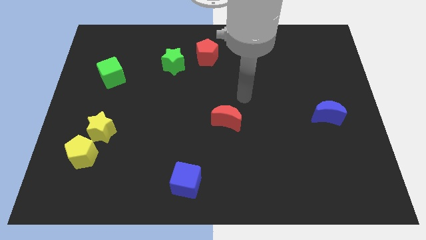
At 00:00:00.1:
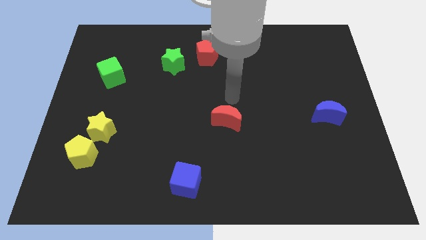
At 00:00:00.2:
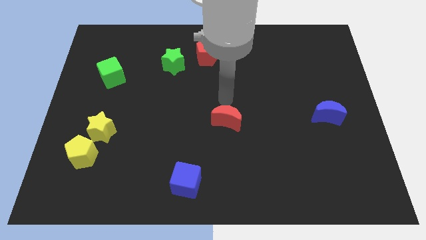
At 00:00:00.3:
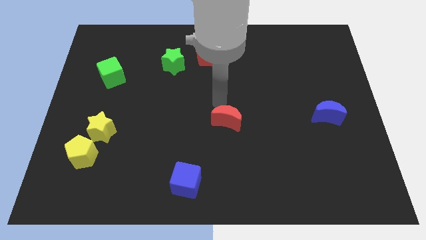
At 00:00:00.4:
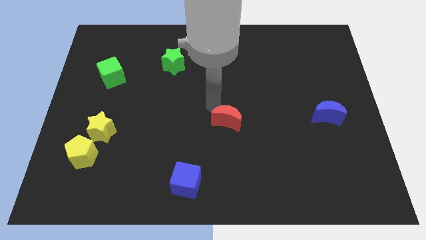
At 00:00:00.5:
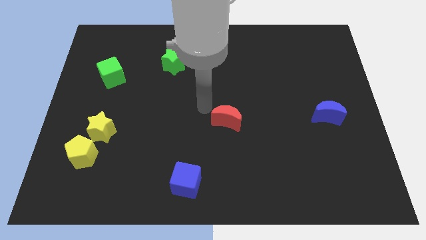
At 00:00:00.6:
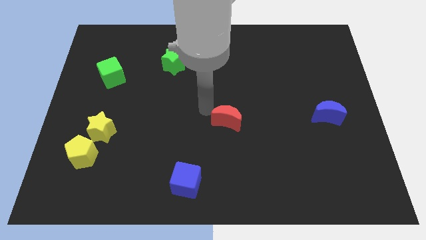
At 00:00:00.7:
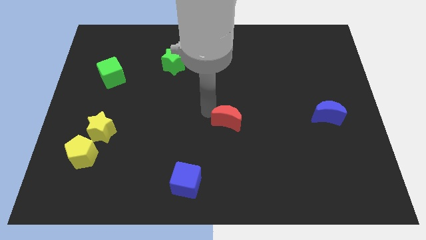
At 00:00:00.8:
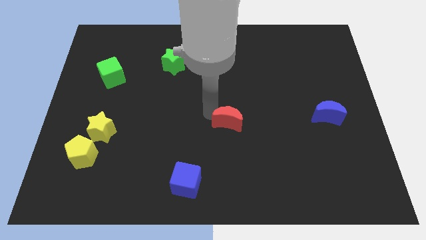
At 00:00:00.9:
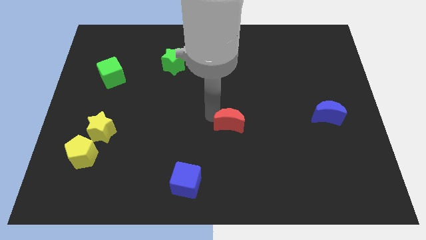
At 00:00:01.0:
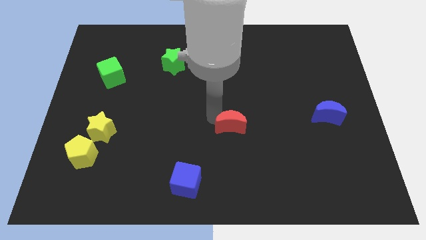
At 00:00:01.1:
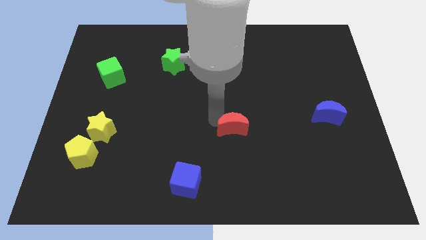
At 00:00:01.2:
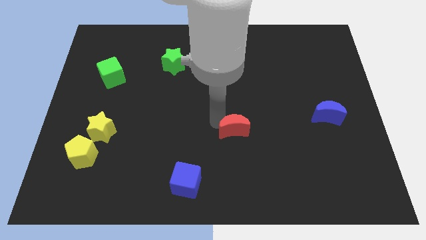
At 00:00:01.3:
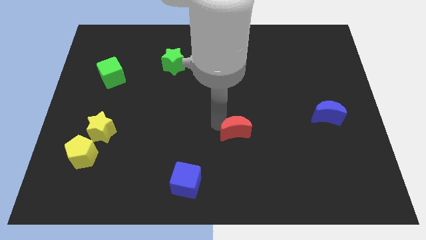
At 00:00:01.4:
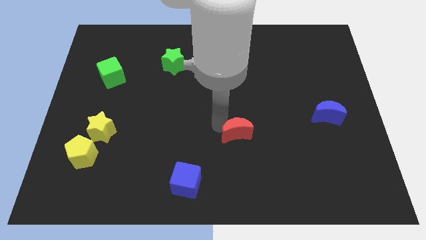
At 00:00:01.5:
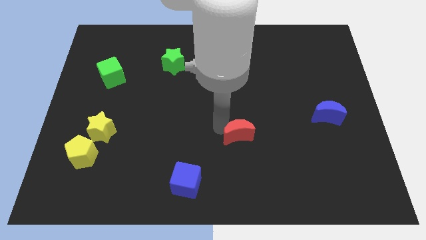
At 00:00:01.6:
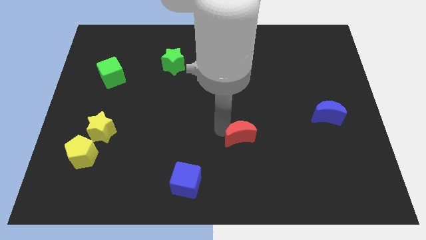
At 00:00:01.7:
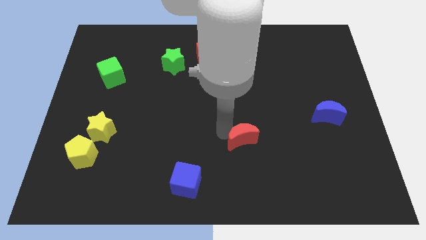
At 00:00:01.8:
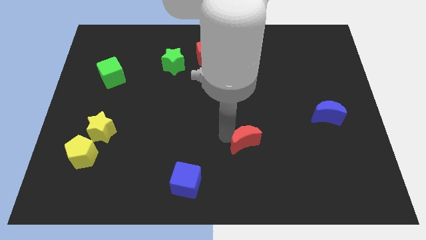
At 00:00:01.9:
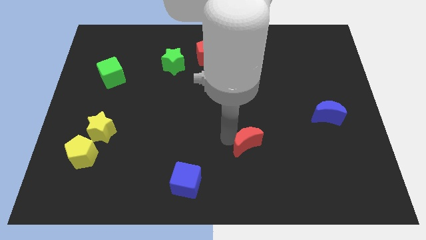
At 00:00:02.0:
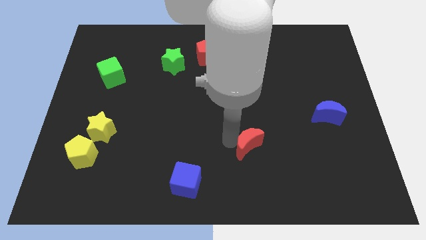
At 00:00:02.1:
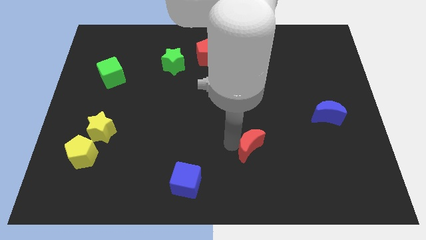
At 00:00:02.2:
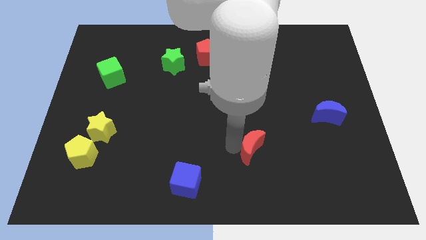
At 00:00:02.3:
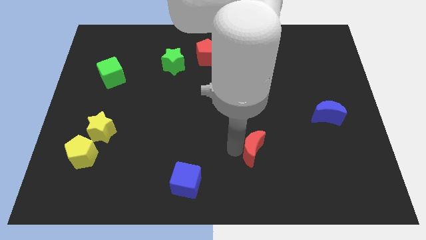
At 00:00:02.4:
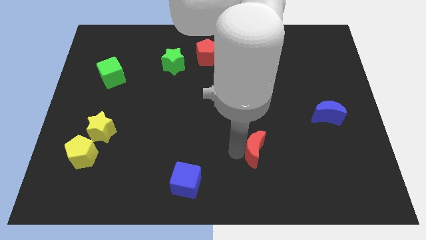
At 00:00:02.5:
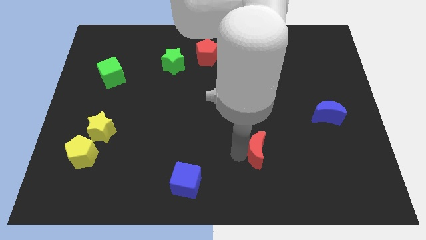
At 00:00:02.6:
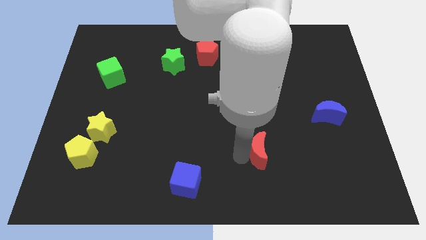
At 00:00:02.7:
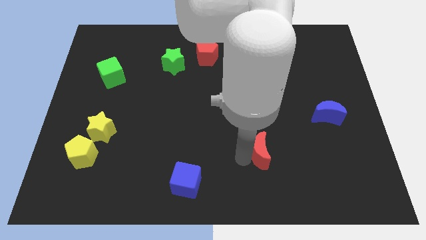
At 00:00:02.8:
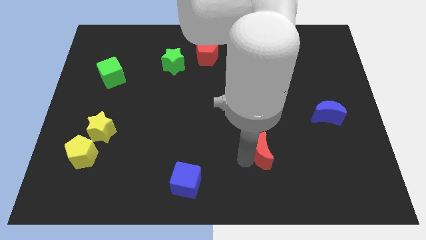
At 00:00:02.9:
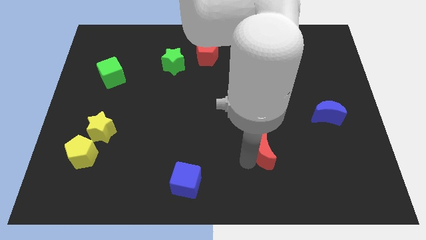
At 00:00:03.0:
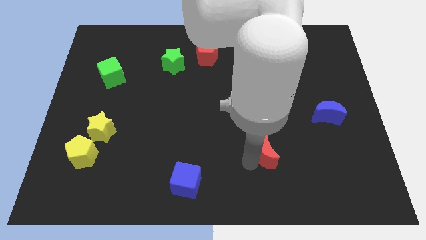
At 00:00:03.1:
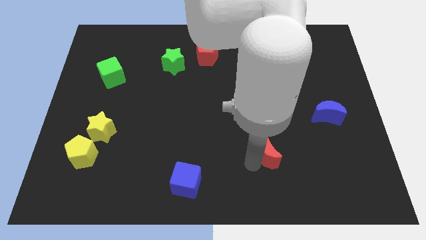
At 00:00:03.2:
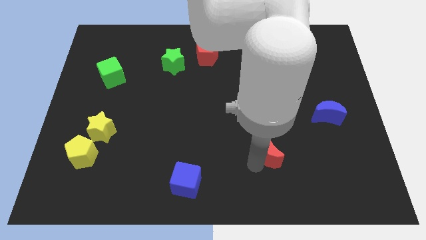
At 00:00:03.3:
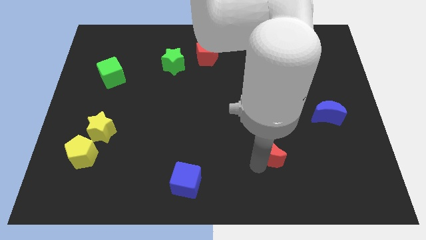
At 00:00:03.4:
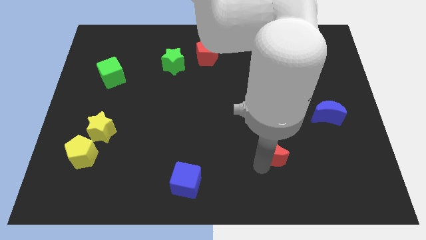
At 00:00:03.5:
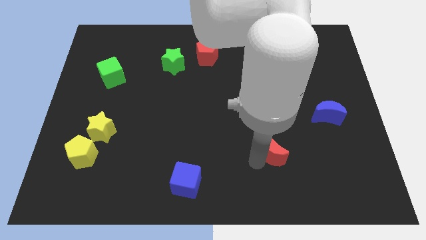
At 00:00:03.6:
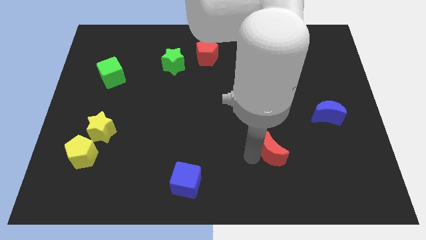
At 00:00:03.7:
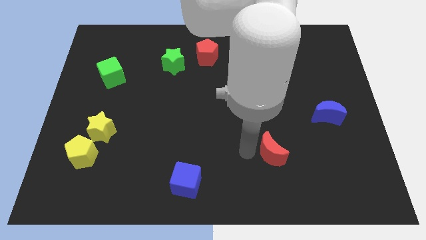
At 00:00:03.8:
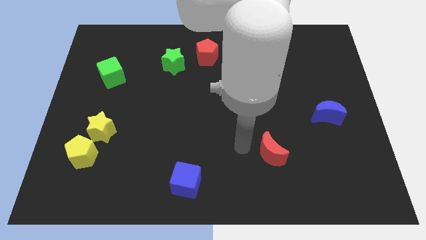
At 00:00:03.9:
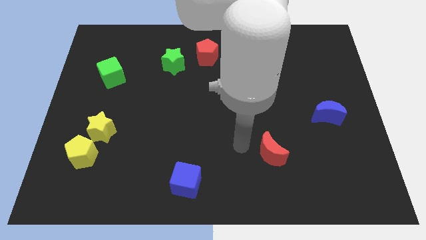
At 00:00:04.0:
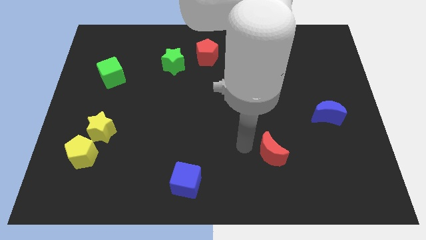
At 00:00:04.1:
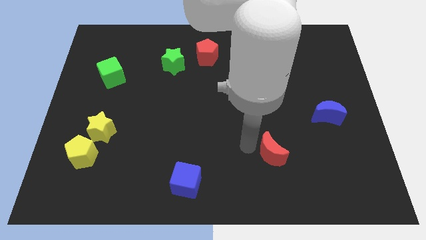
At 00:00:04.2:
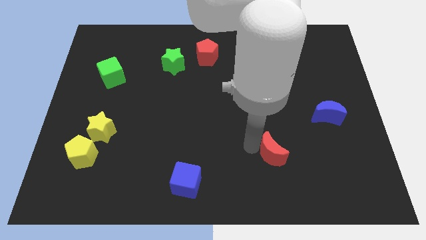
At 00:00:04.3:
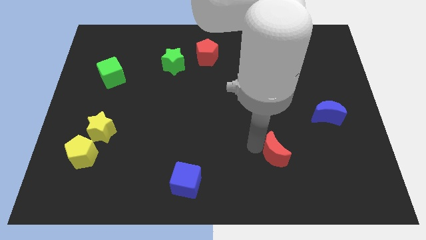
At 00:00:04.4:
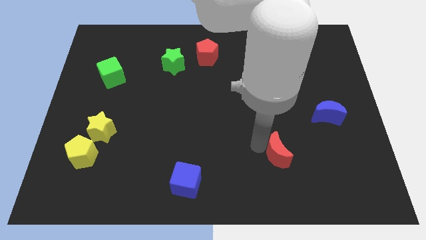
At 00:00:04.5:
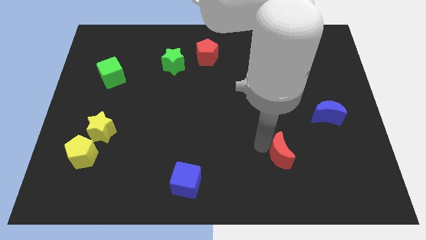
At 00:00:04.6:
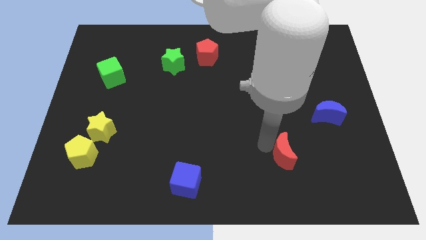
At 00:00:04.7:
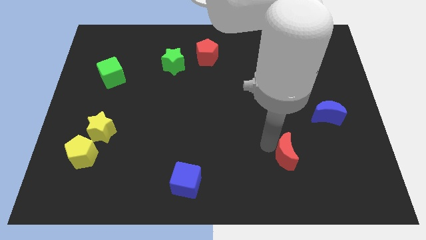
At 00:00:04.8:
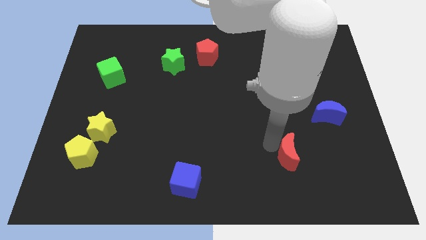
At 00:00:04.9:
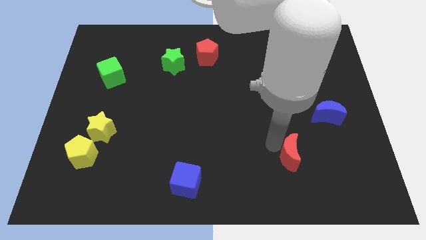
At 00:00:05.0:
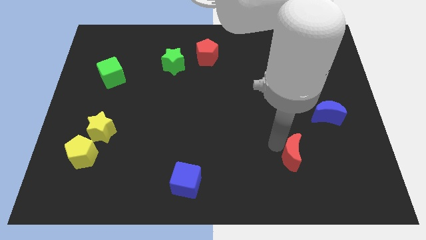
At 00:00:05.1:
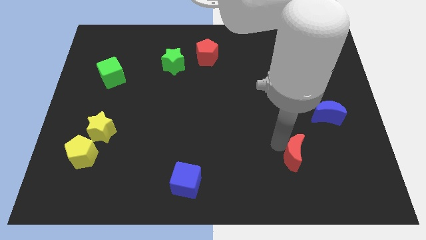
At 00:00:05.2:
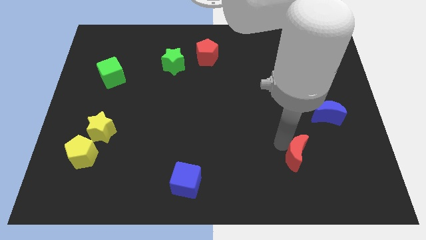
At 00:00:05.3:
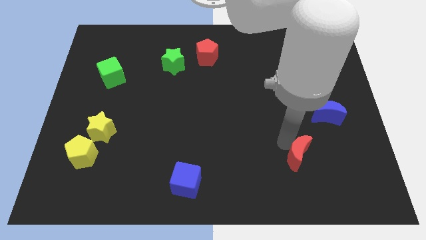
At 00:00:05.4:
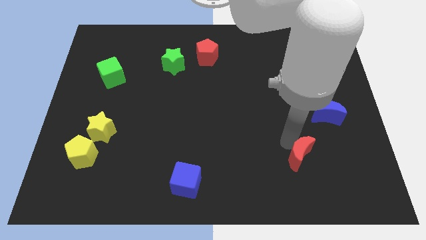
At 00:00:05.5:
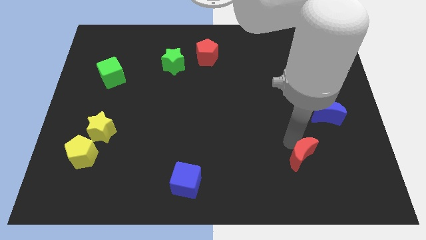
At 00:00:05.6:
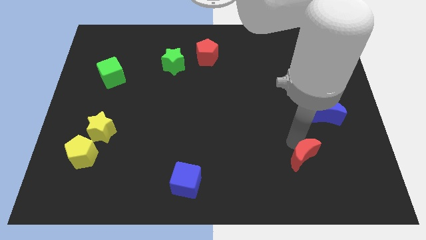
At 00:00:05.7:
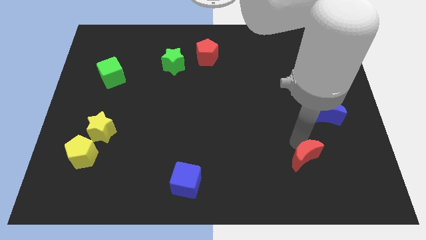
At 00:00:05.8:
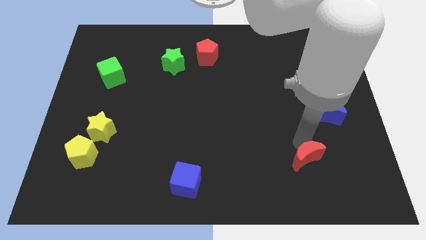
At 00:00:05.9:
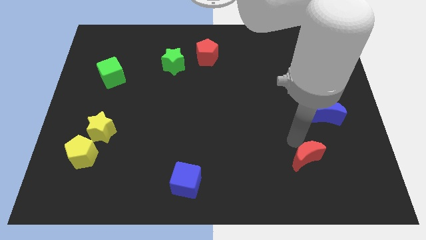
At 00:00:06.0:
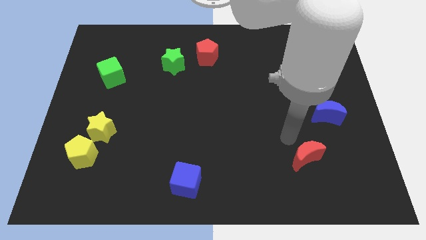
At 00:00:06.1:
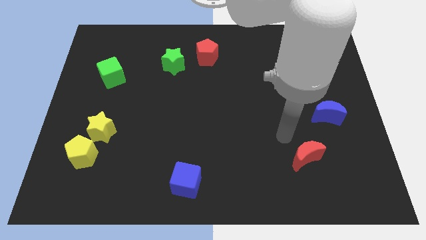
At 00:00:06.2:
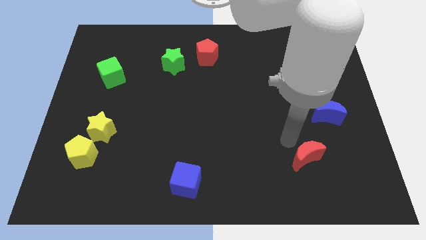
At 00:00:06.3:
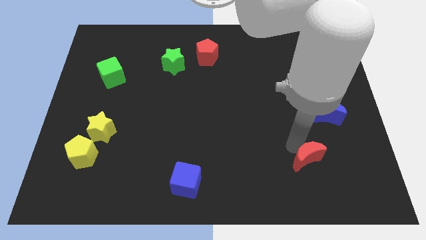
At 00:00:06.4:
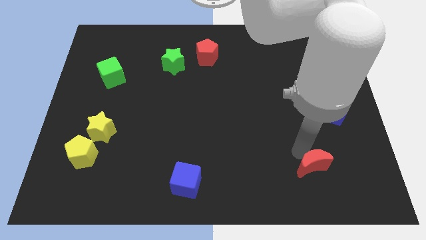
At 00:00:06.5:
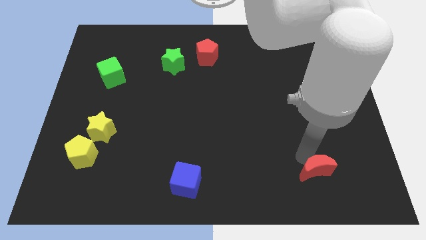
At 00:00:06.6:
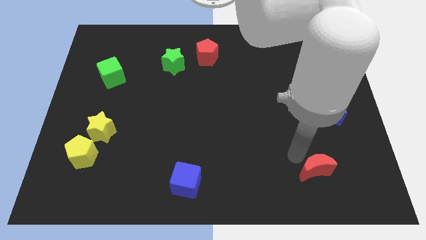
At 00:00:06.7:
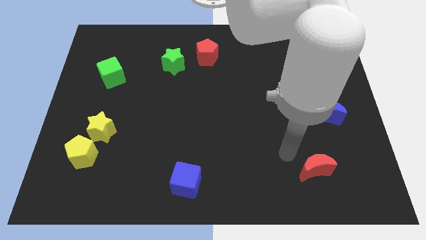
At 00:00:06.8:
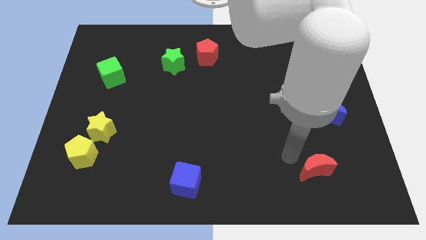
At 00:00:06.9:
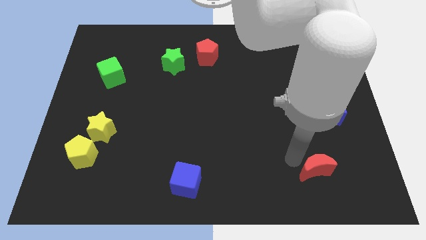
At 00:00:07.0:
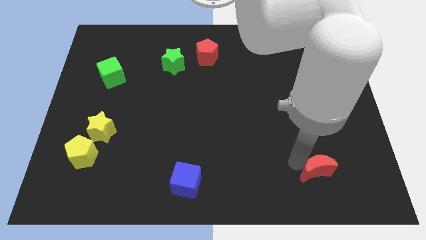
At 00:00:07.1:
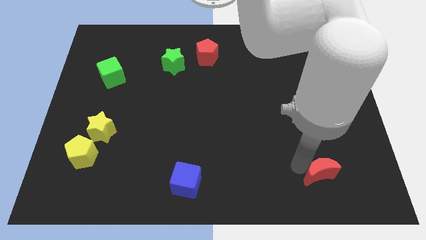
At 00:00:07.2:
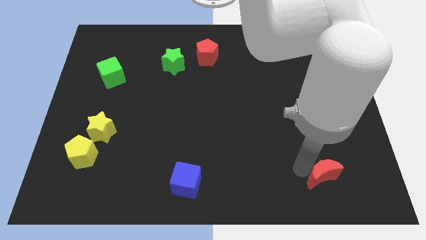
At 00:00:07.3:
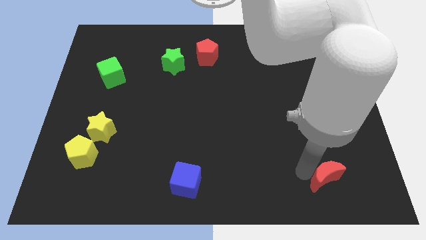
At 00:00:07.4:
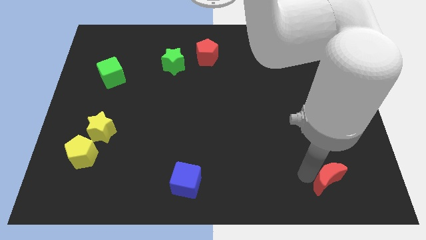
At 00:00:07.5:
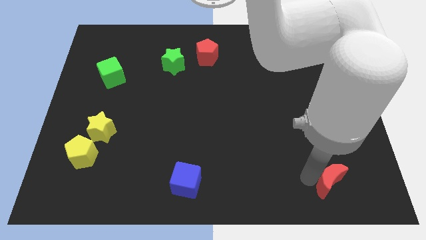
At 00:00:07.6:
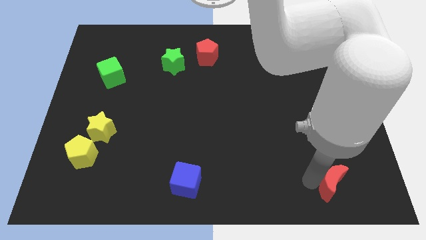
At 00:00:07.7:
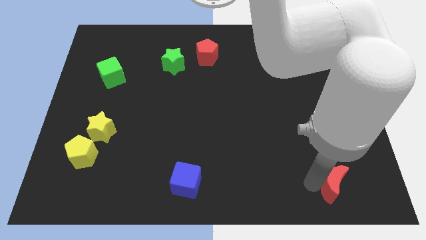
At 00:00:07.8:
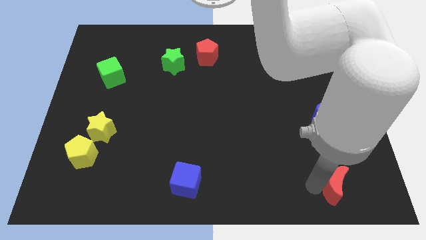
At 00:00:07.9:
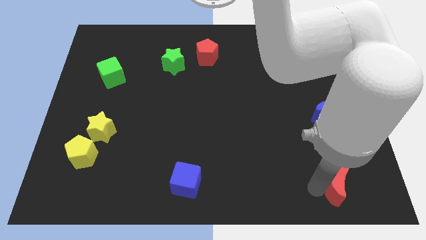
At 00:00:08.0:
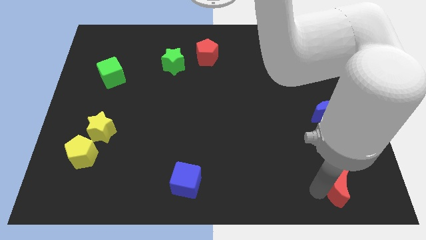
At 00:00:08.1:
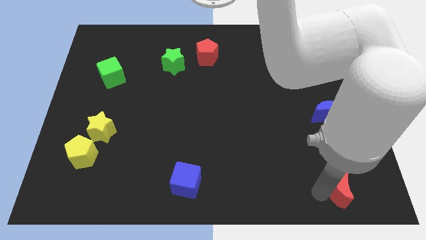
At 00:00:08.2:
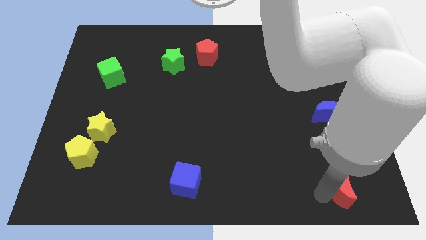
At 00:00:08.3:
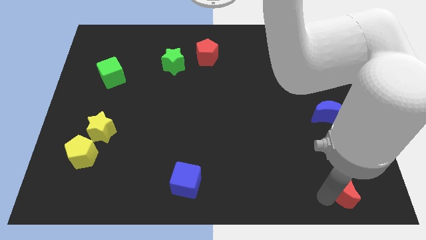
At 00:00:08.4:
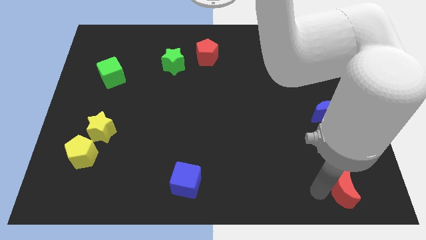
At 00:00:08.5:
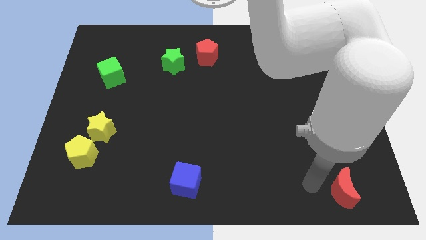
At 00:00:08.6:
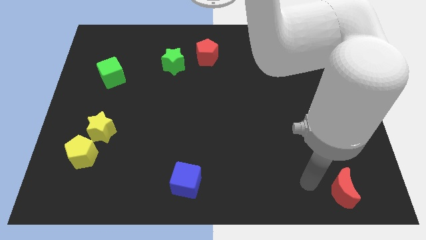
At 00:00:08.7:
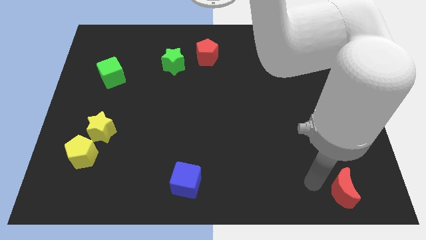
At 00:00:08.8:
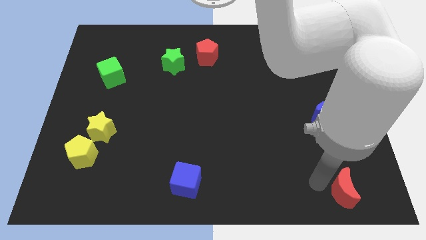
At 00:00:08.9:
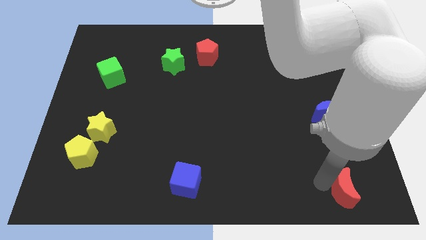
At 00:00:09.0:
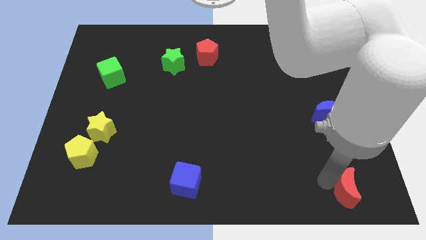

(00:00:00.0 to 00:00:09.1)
put the red moon to the bottom right
